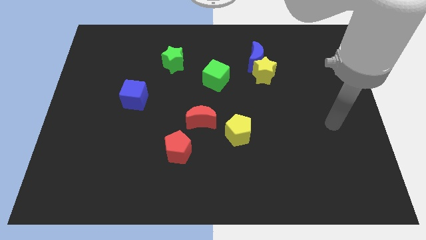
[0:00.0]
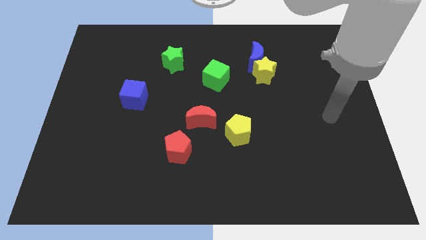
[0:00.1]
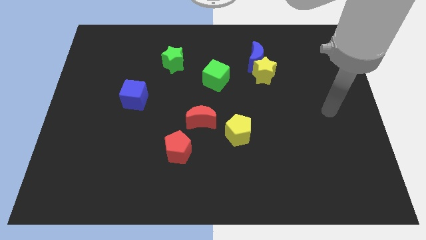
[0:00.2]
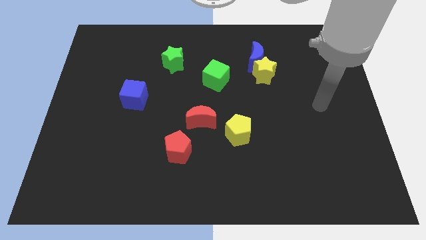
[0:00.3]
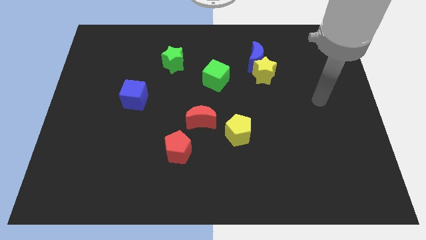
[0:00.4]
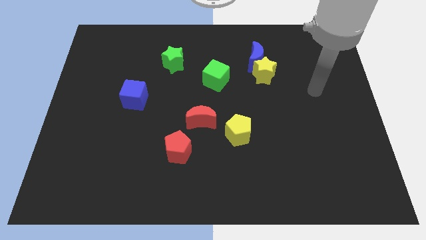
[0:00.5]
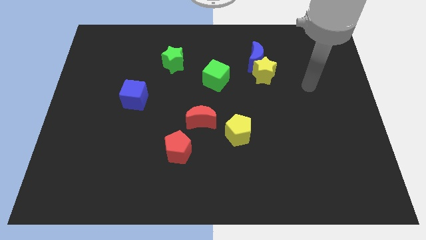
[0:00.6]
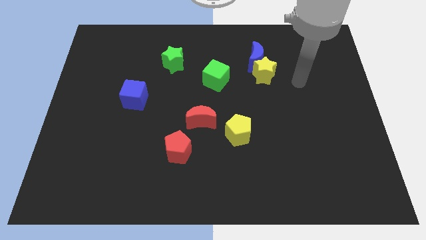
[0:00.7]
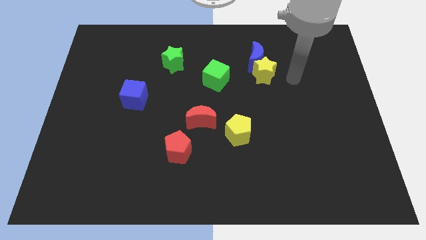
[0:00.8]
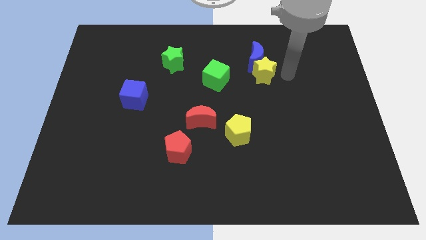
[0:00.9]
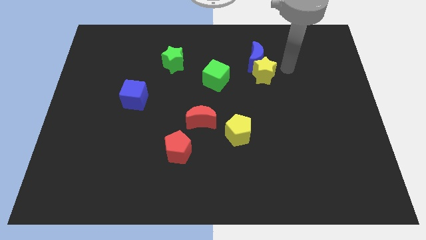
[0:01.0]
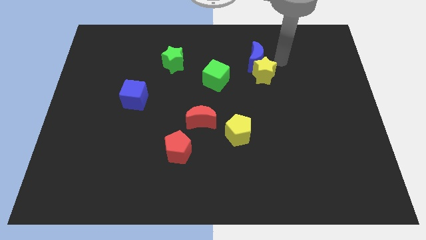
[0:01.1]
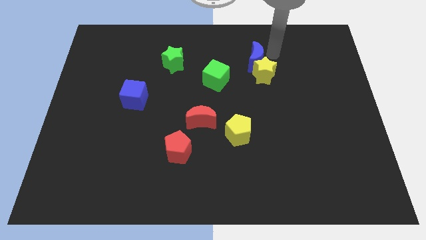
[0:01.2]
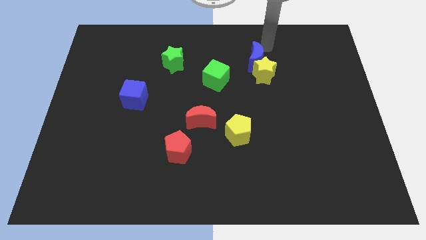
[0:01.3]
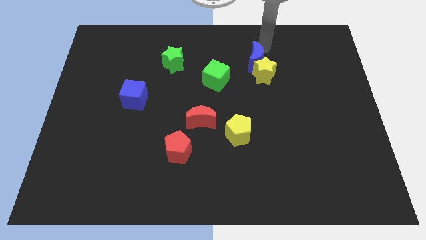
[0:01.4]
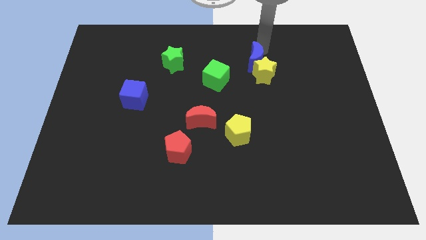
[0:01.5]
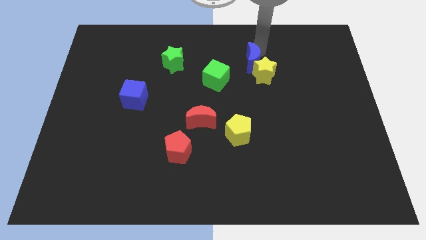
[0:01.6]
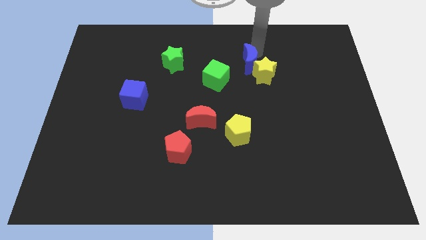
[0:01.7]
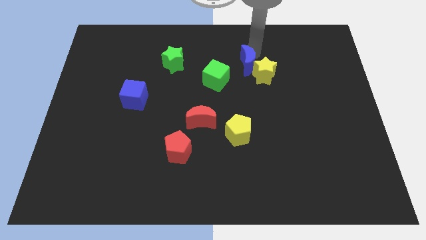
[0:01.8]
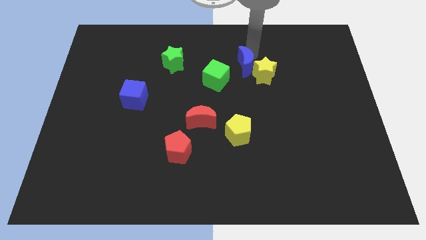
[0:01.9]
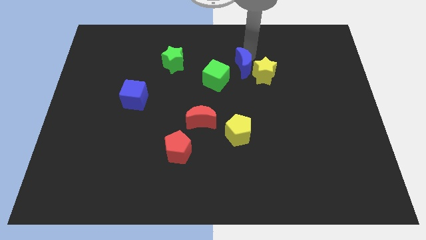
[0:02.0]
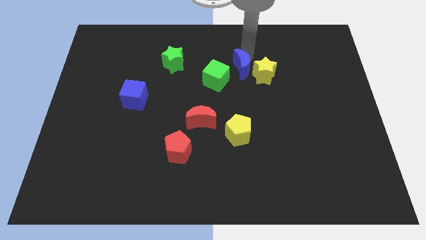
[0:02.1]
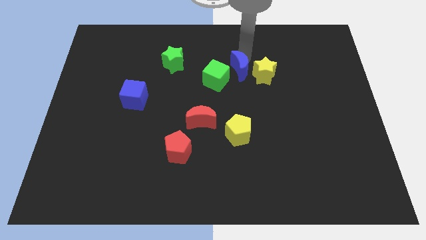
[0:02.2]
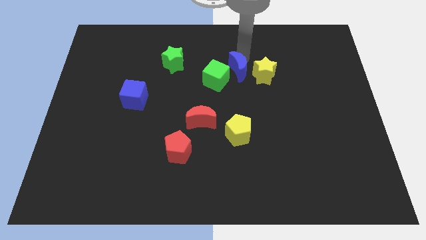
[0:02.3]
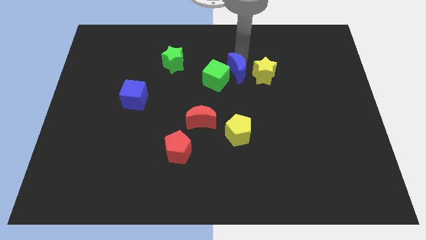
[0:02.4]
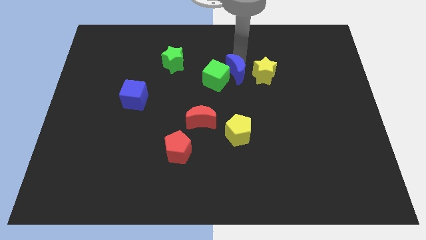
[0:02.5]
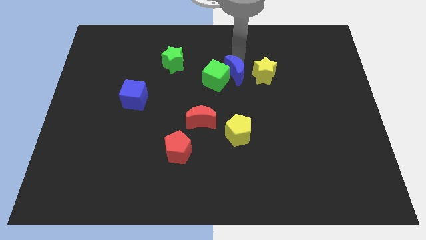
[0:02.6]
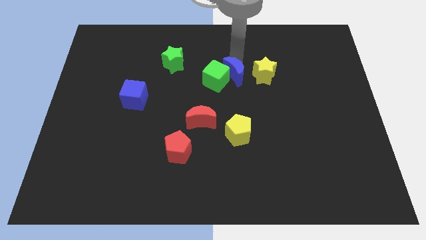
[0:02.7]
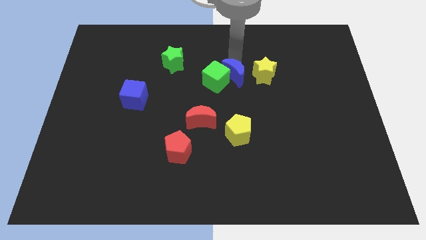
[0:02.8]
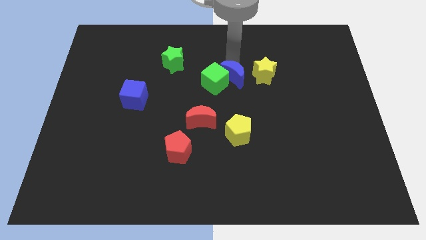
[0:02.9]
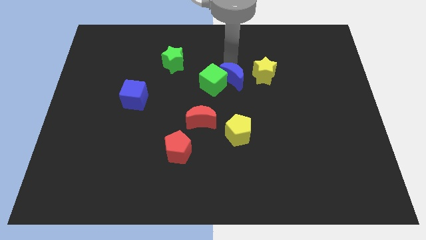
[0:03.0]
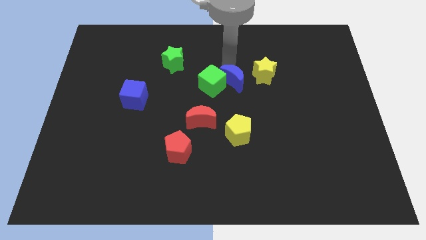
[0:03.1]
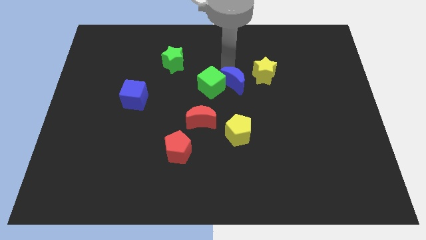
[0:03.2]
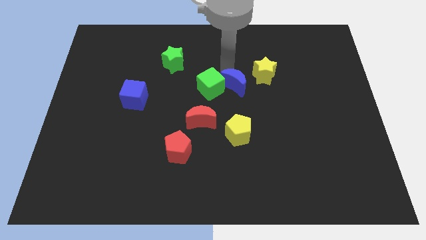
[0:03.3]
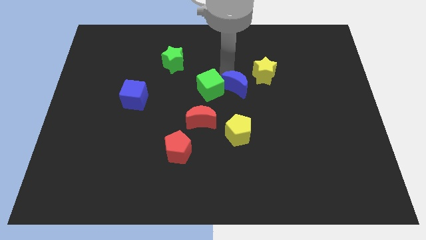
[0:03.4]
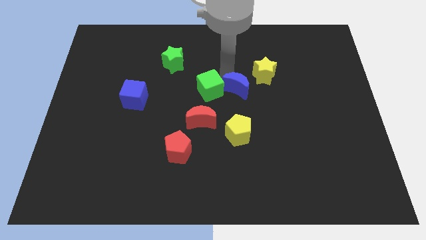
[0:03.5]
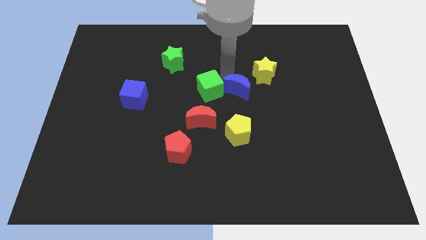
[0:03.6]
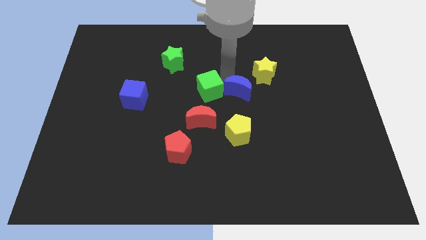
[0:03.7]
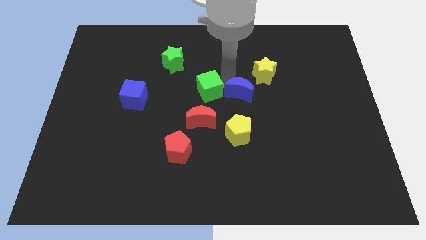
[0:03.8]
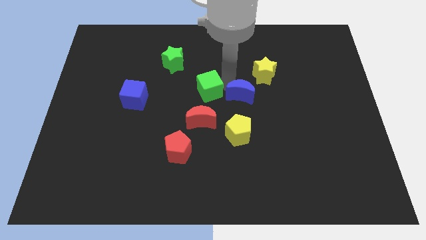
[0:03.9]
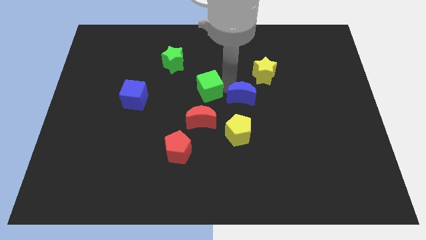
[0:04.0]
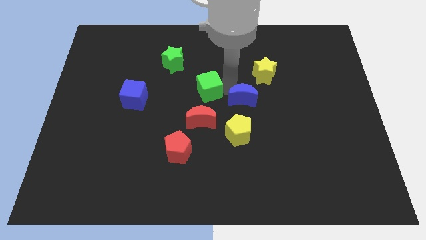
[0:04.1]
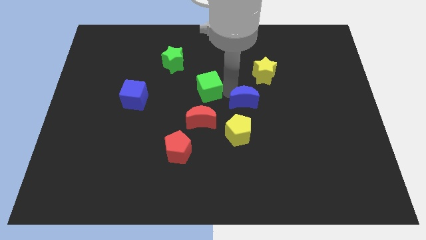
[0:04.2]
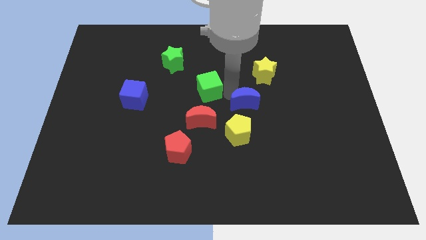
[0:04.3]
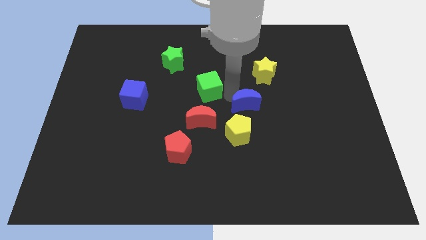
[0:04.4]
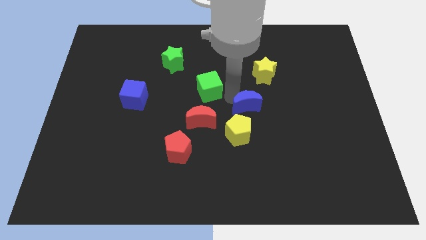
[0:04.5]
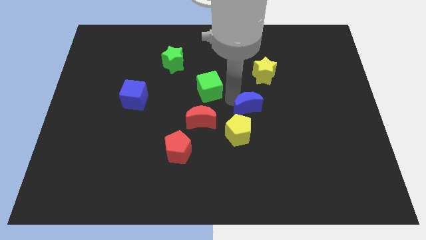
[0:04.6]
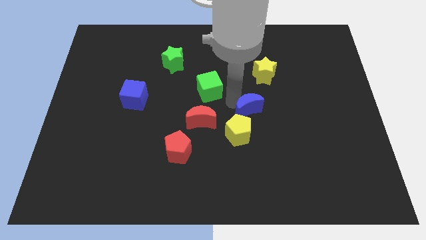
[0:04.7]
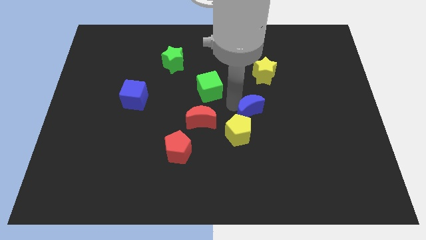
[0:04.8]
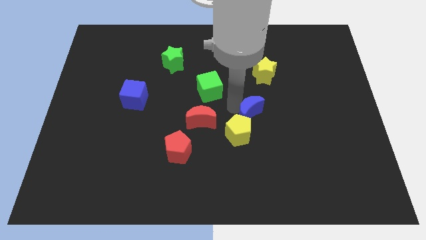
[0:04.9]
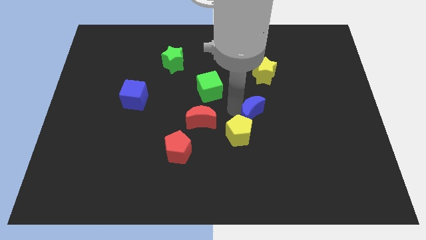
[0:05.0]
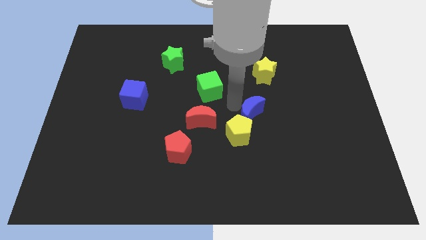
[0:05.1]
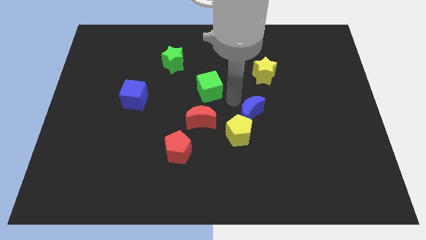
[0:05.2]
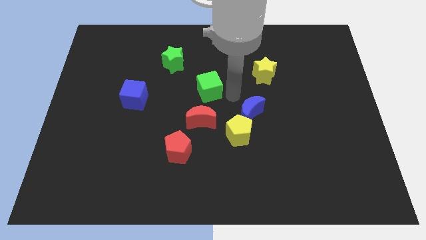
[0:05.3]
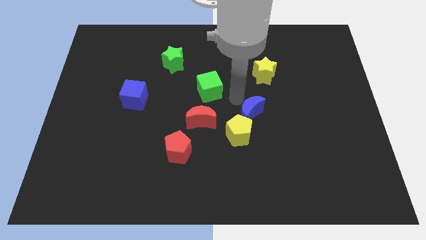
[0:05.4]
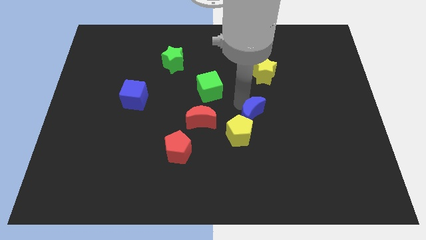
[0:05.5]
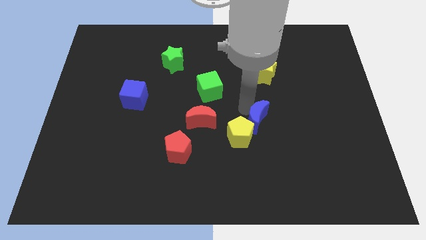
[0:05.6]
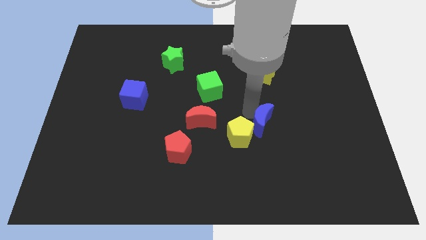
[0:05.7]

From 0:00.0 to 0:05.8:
slide the blue moon downwards

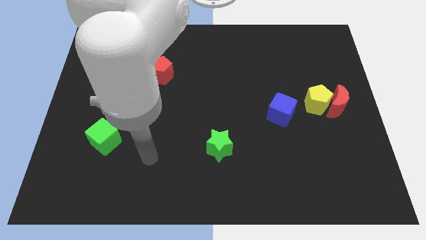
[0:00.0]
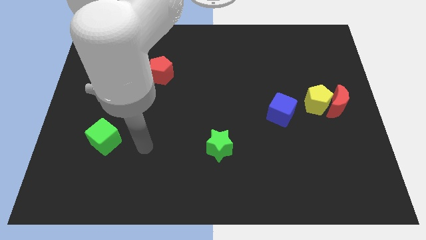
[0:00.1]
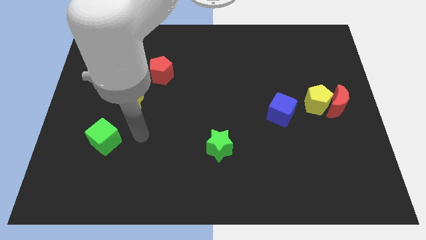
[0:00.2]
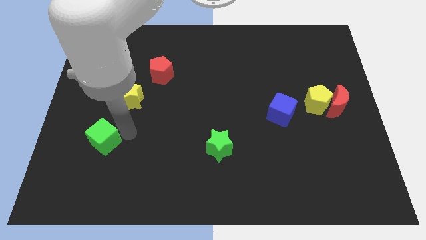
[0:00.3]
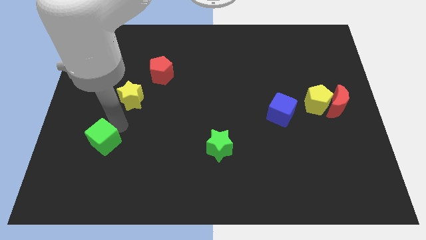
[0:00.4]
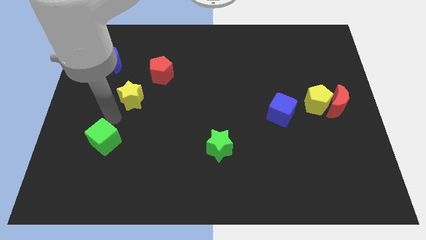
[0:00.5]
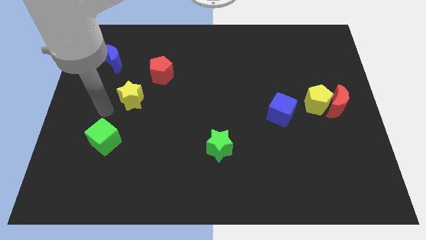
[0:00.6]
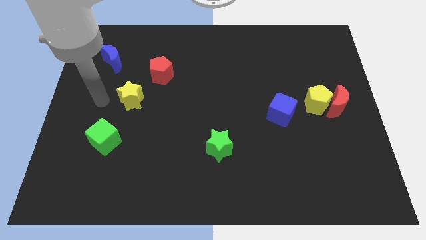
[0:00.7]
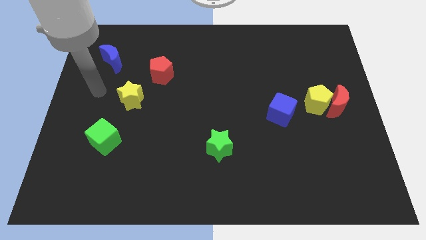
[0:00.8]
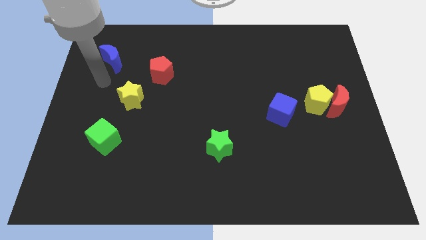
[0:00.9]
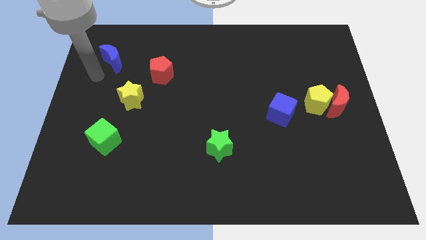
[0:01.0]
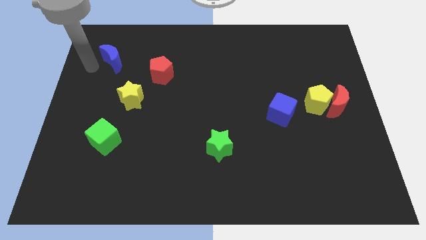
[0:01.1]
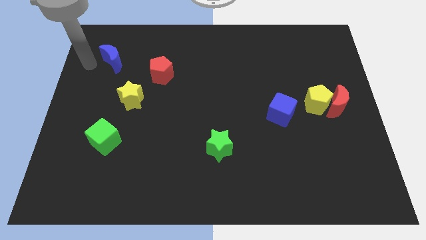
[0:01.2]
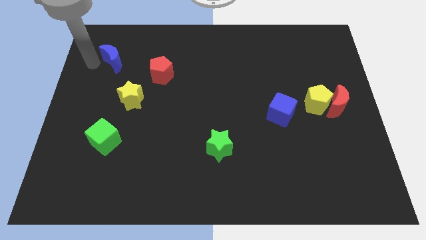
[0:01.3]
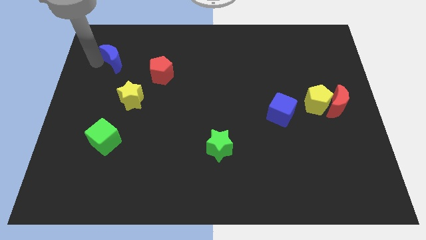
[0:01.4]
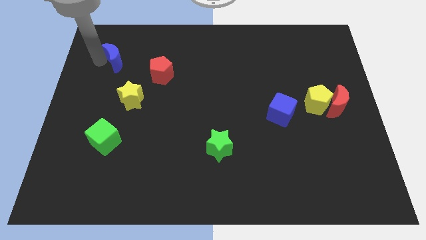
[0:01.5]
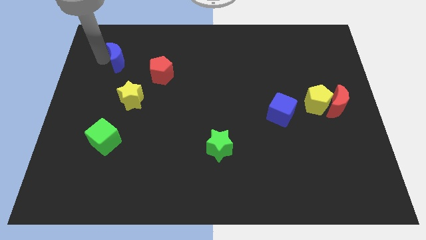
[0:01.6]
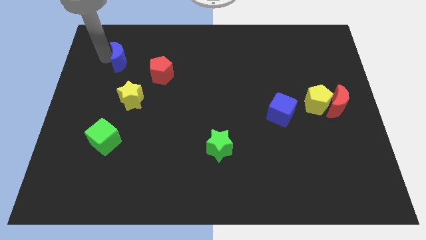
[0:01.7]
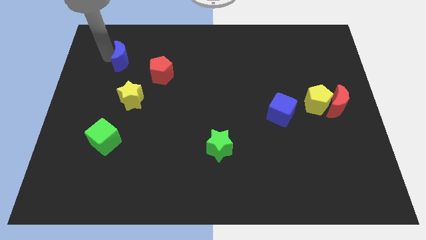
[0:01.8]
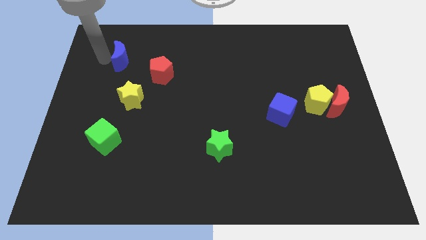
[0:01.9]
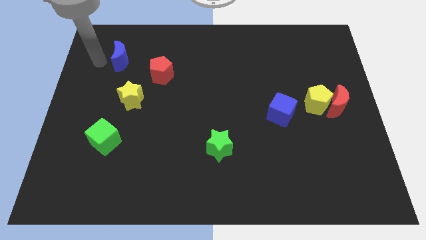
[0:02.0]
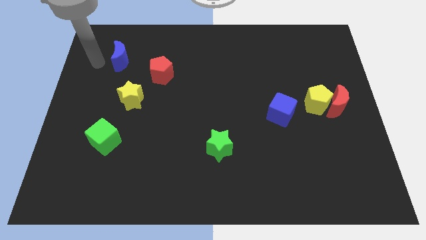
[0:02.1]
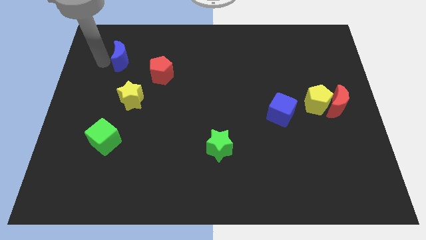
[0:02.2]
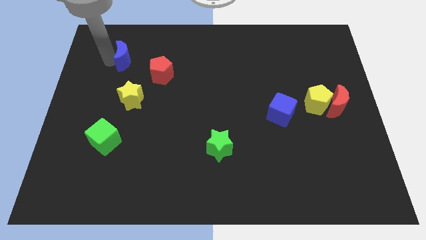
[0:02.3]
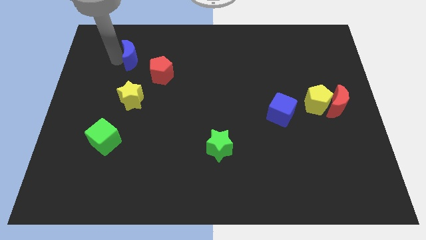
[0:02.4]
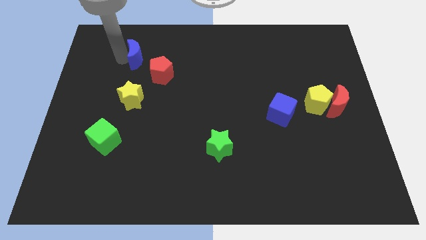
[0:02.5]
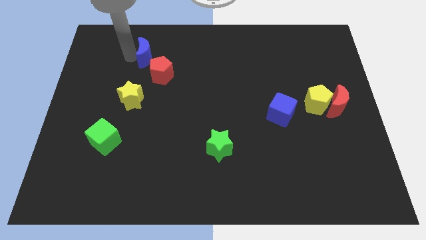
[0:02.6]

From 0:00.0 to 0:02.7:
move the blue moon a little bit to the right
